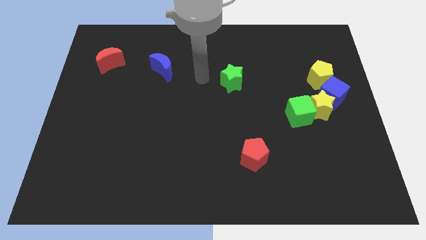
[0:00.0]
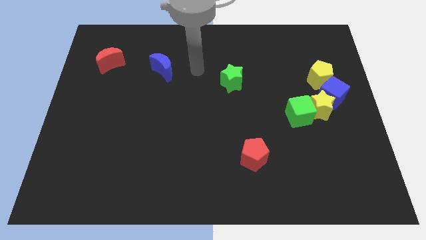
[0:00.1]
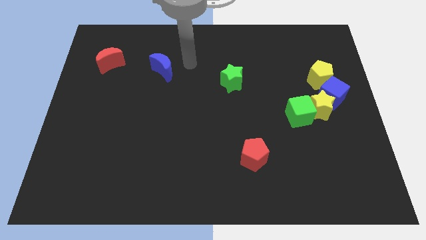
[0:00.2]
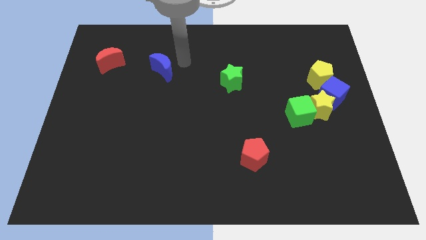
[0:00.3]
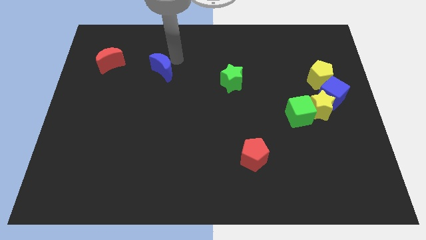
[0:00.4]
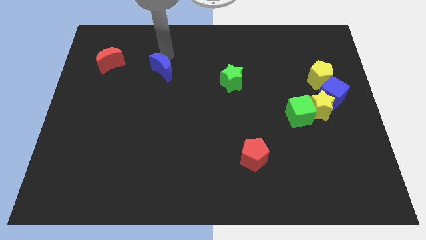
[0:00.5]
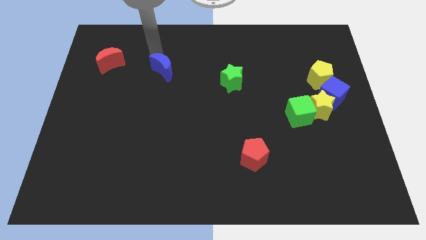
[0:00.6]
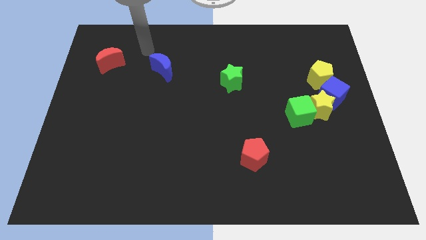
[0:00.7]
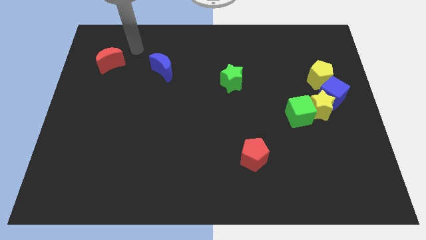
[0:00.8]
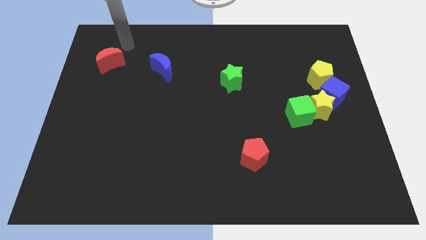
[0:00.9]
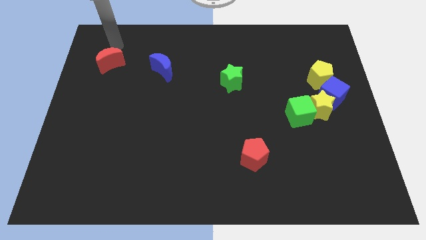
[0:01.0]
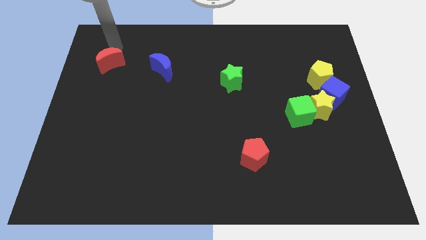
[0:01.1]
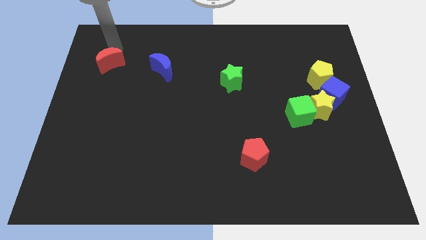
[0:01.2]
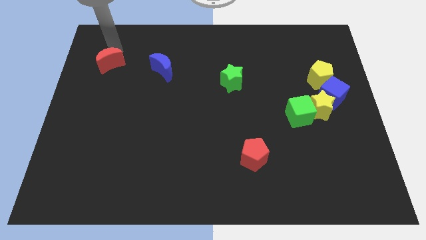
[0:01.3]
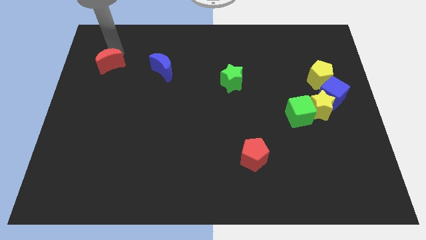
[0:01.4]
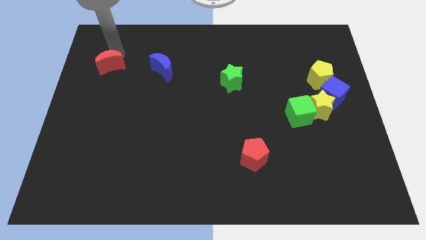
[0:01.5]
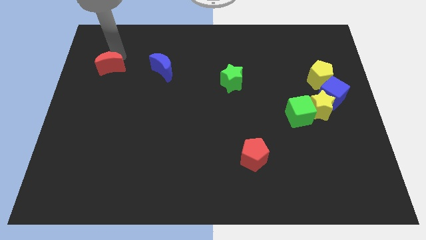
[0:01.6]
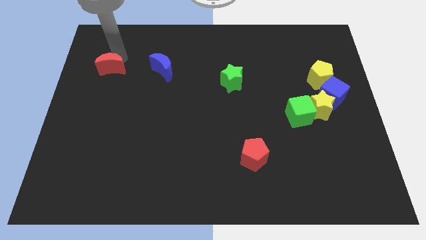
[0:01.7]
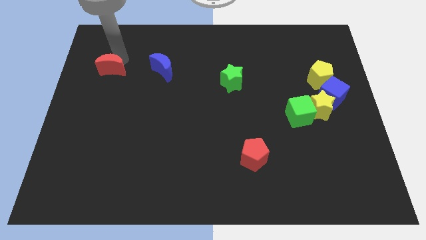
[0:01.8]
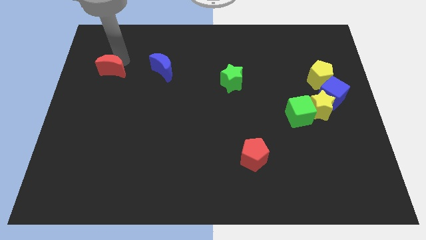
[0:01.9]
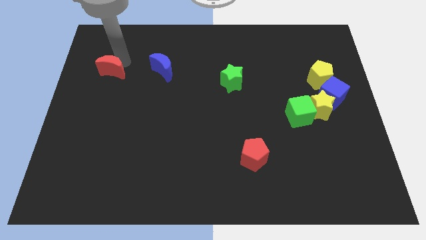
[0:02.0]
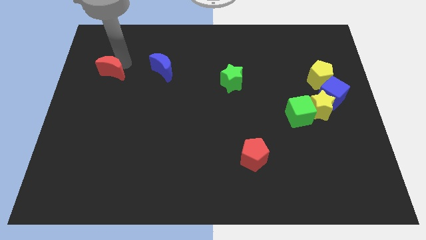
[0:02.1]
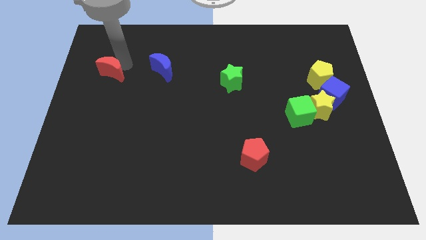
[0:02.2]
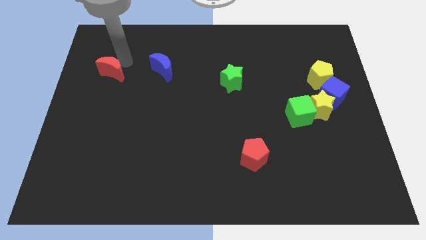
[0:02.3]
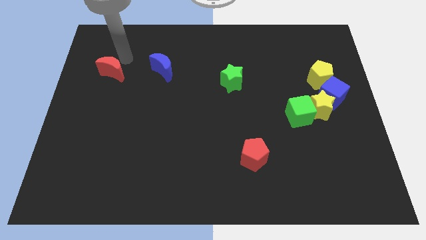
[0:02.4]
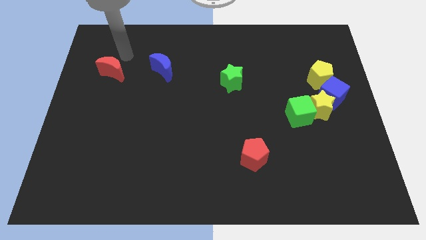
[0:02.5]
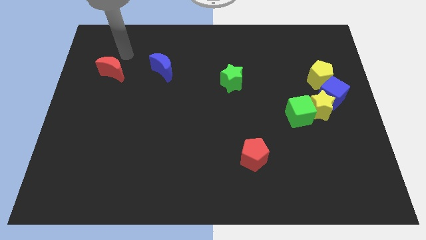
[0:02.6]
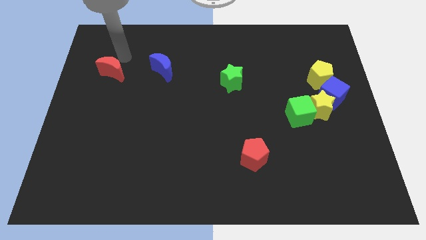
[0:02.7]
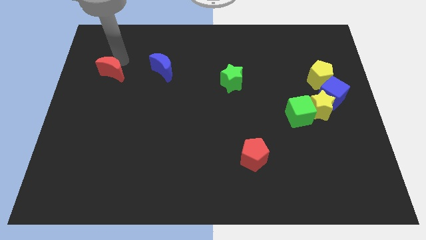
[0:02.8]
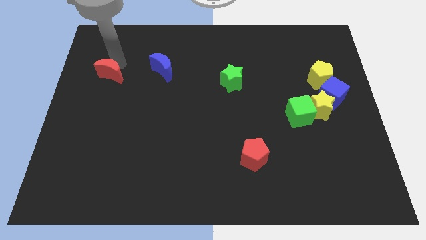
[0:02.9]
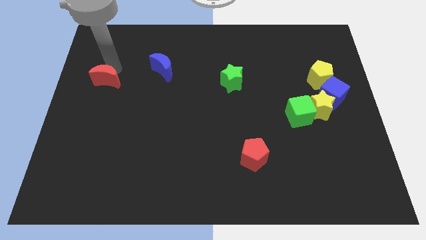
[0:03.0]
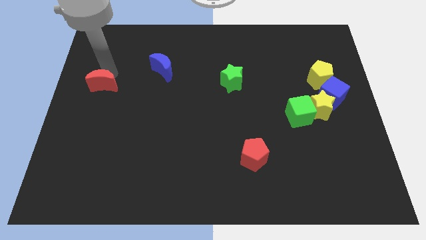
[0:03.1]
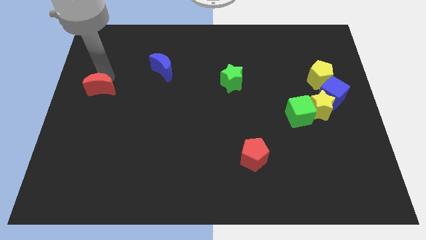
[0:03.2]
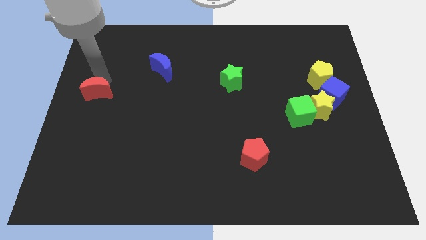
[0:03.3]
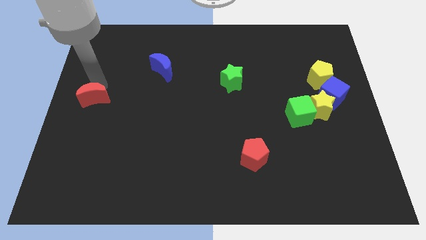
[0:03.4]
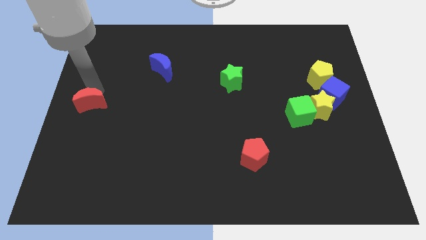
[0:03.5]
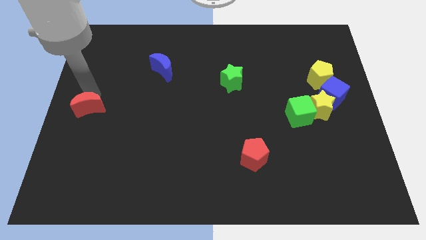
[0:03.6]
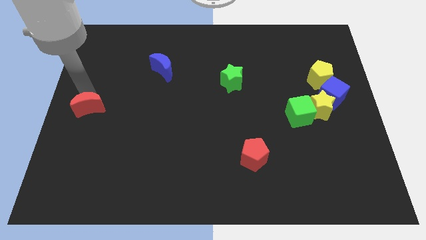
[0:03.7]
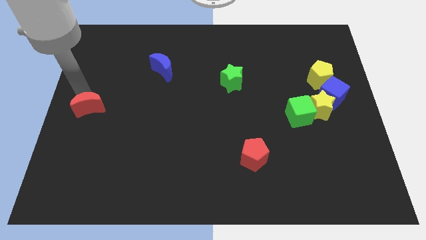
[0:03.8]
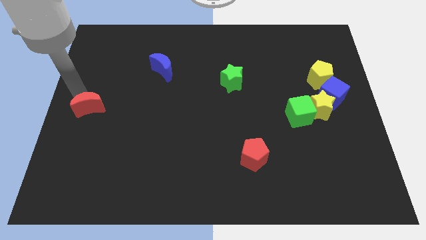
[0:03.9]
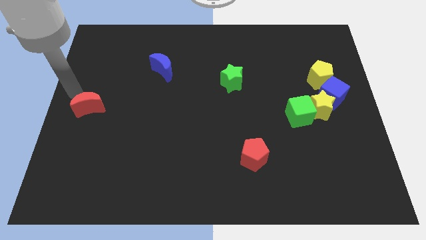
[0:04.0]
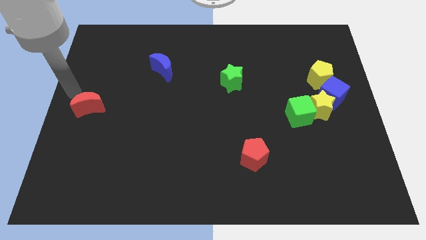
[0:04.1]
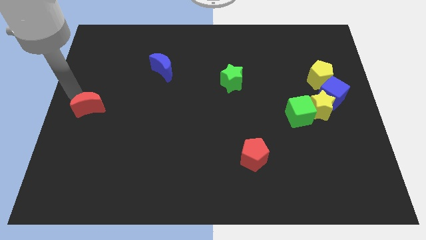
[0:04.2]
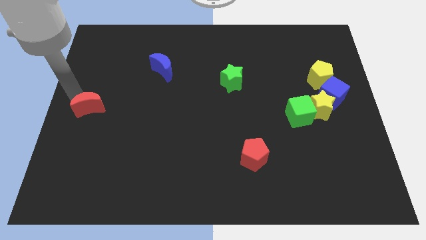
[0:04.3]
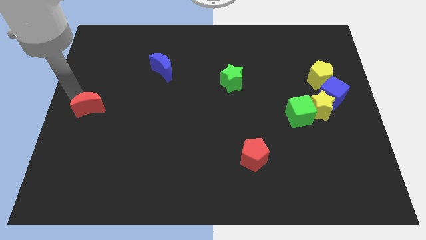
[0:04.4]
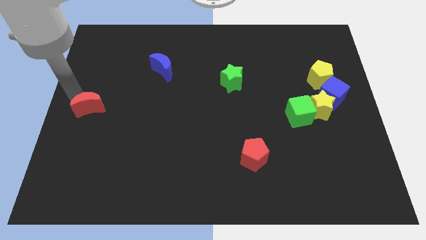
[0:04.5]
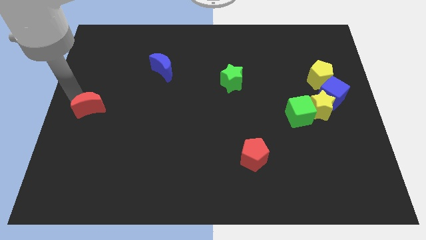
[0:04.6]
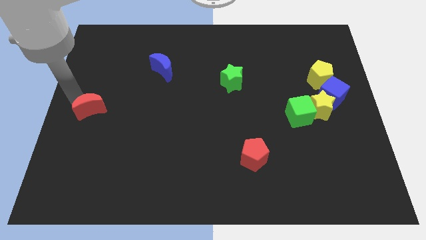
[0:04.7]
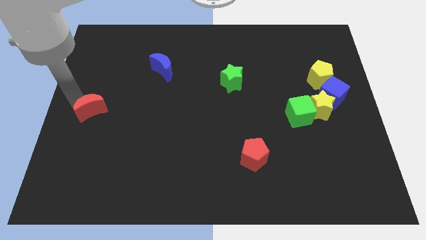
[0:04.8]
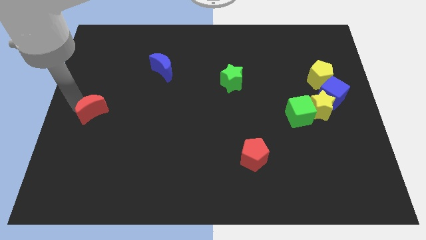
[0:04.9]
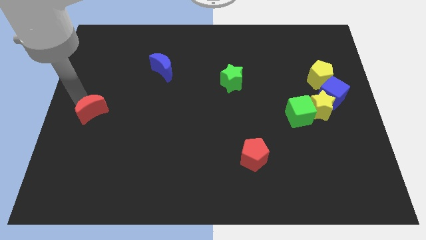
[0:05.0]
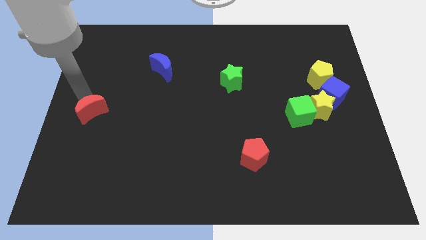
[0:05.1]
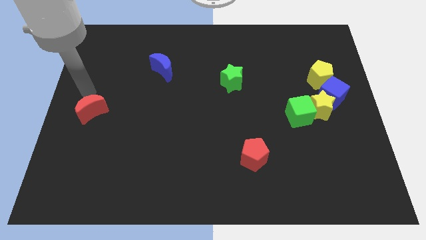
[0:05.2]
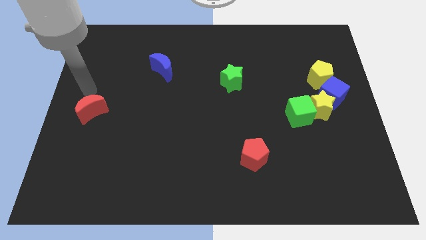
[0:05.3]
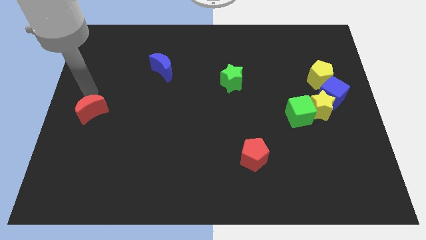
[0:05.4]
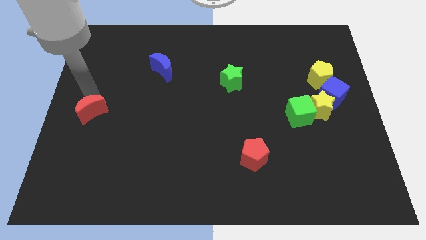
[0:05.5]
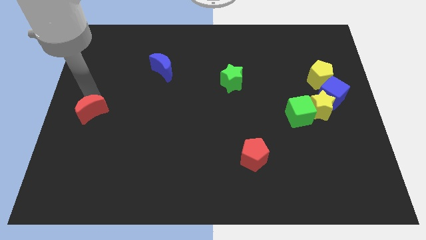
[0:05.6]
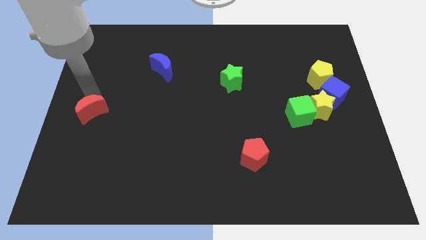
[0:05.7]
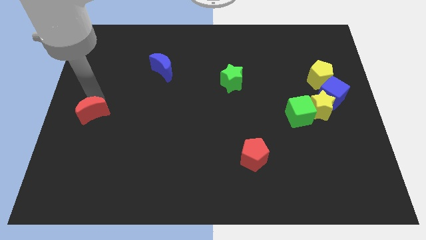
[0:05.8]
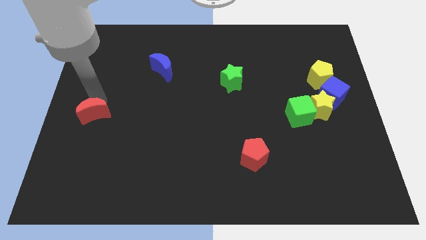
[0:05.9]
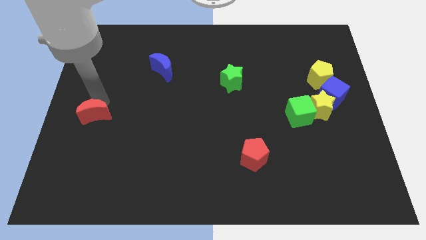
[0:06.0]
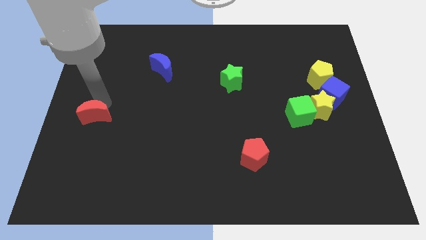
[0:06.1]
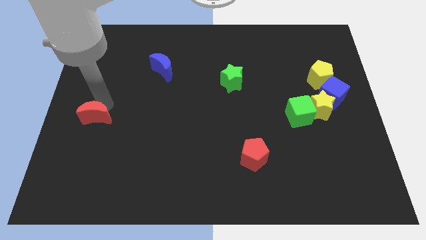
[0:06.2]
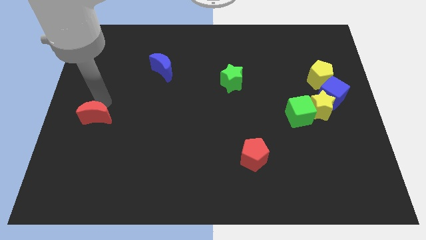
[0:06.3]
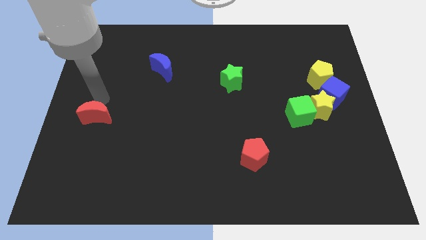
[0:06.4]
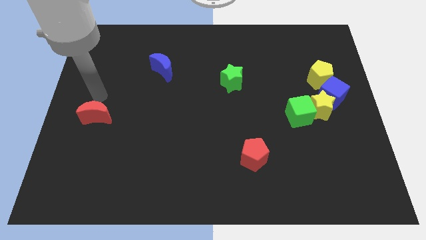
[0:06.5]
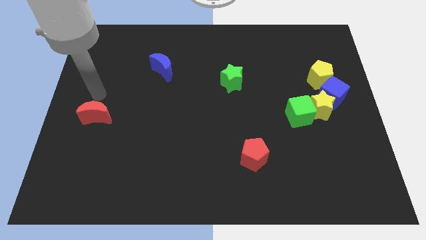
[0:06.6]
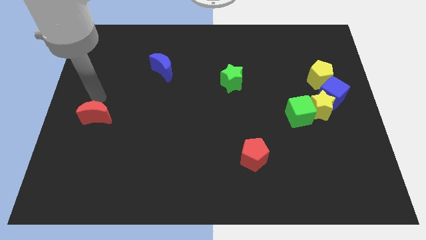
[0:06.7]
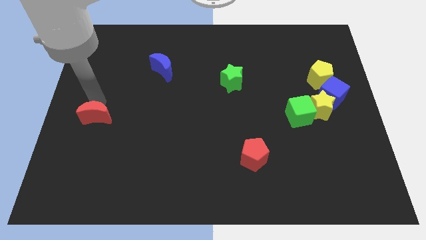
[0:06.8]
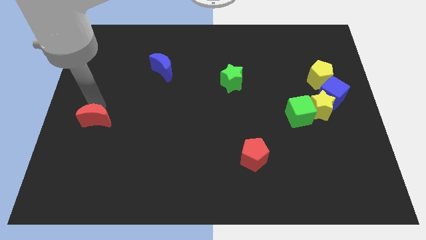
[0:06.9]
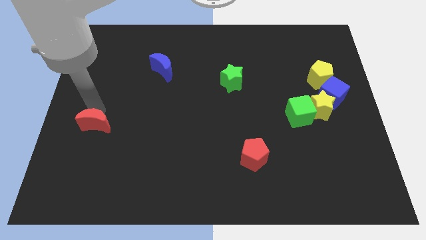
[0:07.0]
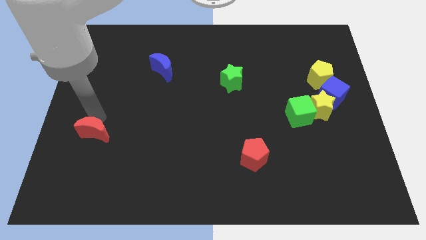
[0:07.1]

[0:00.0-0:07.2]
push the red moon down

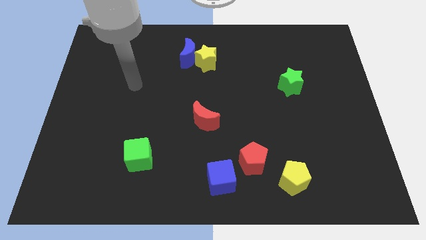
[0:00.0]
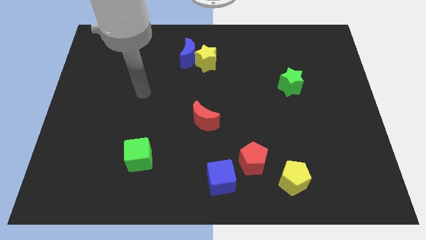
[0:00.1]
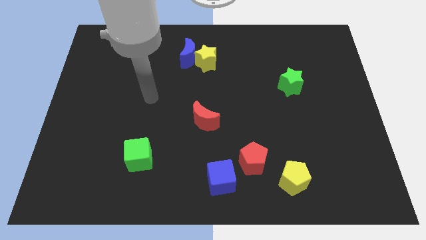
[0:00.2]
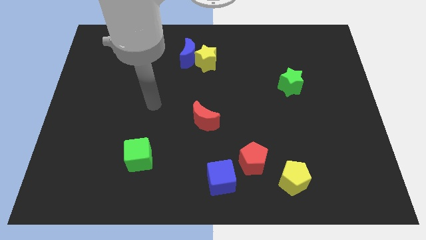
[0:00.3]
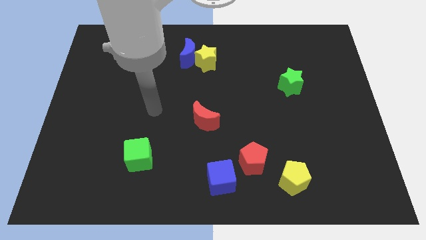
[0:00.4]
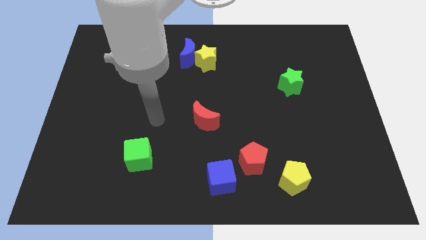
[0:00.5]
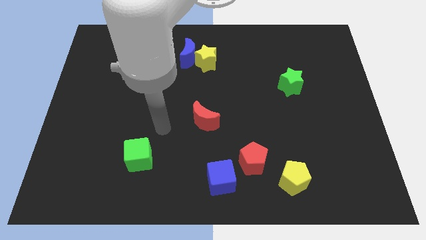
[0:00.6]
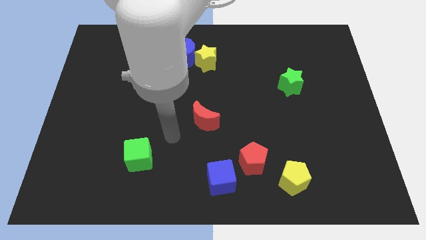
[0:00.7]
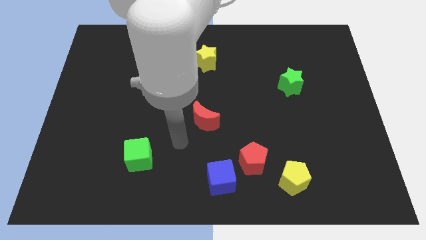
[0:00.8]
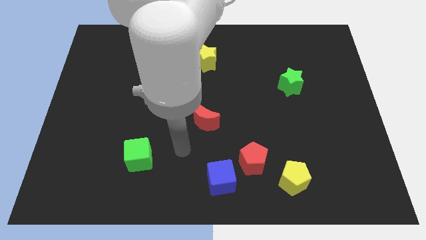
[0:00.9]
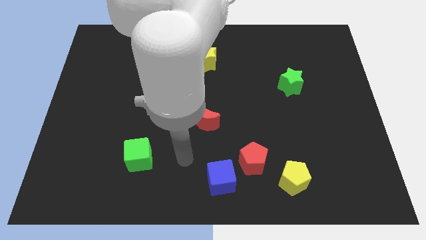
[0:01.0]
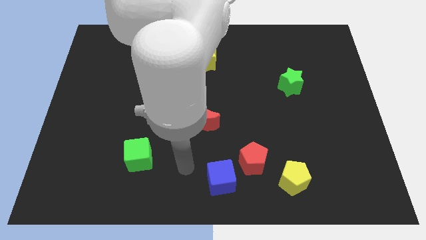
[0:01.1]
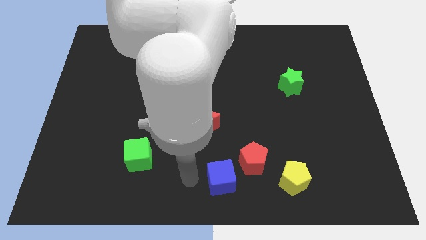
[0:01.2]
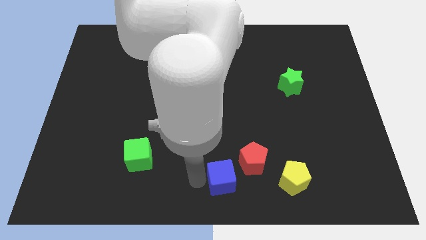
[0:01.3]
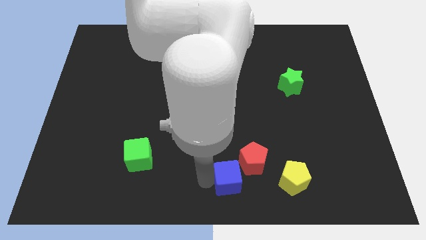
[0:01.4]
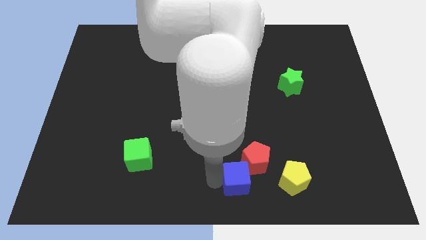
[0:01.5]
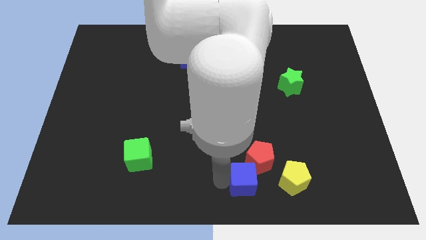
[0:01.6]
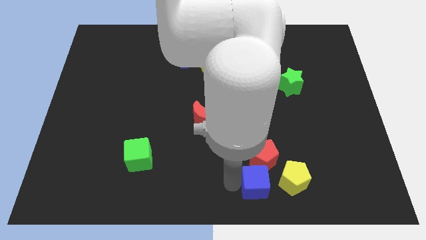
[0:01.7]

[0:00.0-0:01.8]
move the blue cube a little right
